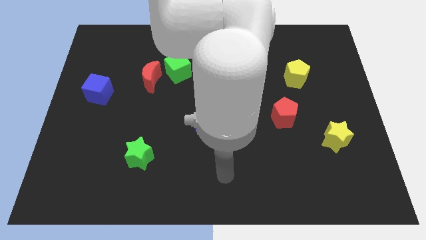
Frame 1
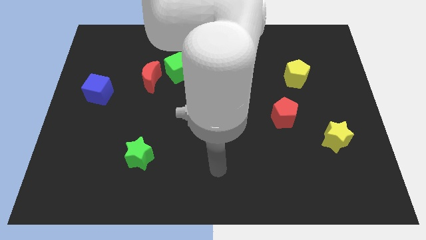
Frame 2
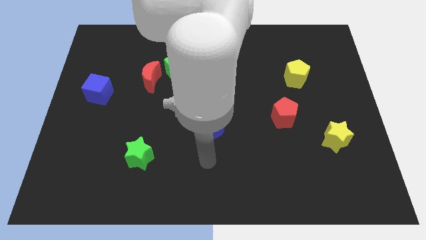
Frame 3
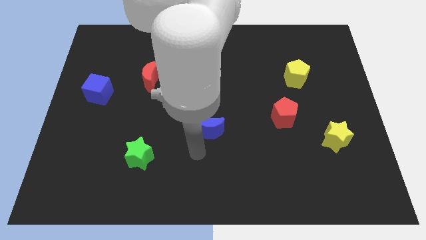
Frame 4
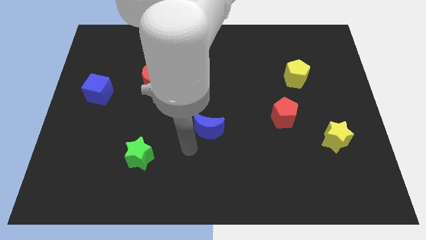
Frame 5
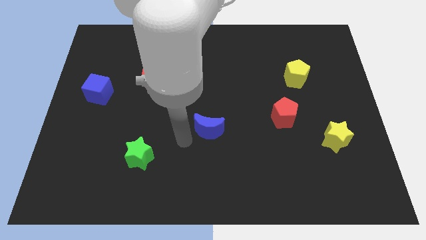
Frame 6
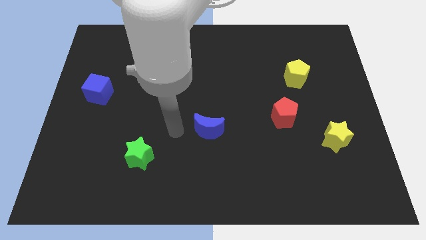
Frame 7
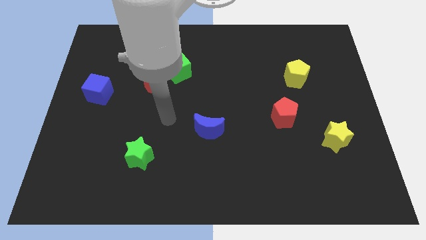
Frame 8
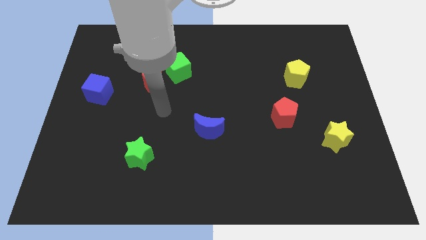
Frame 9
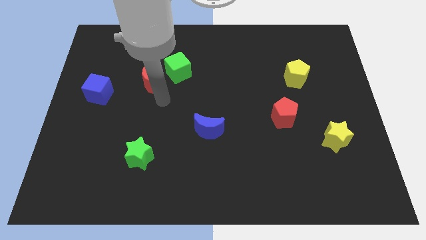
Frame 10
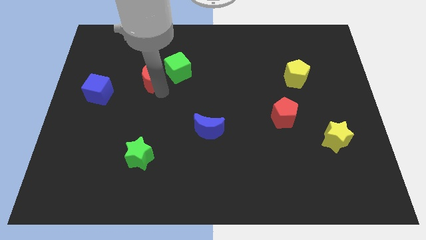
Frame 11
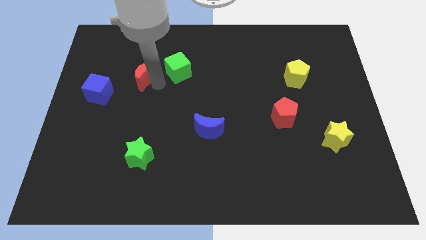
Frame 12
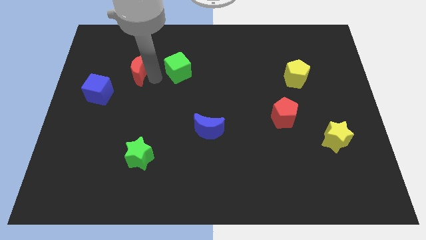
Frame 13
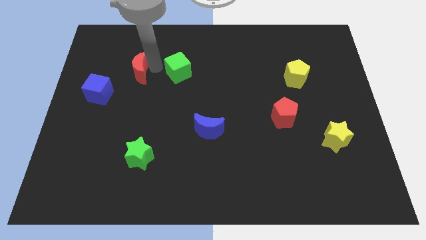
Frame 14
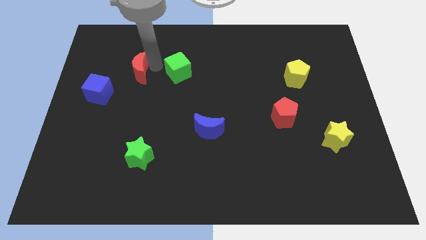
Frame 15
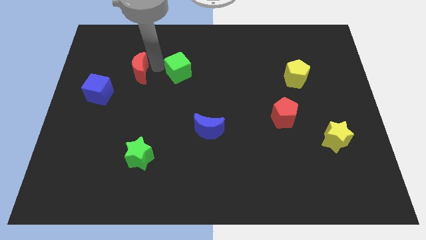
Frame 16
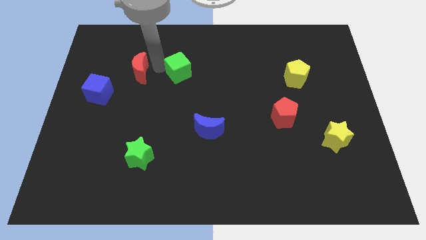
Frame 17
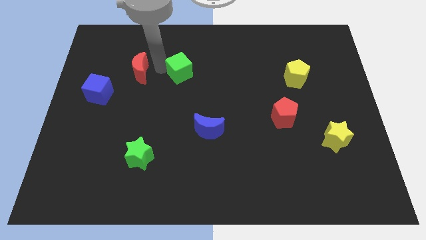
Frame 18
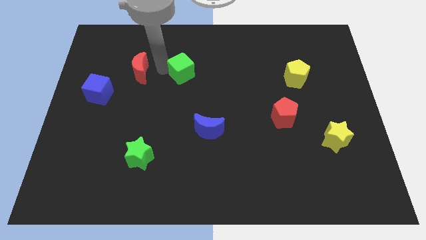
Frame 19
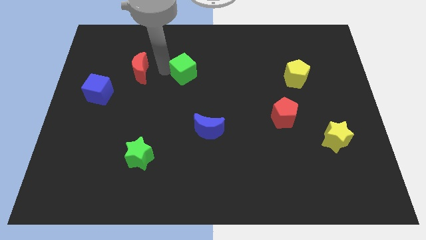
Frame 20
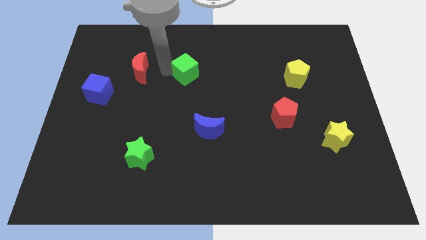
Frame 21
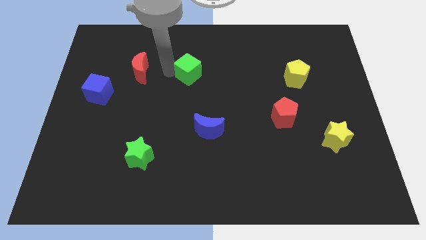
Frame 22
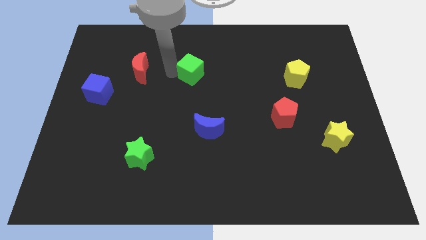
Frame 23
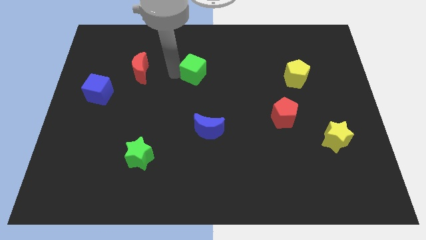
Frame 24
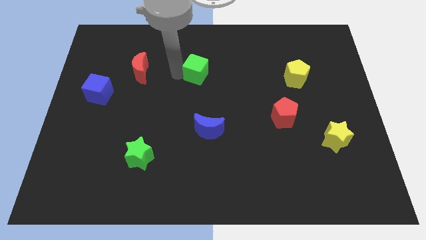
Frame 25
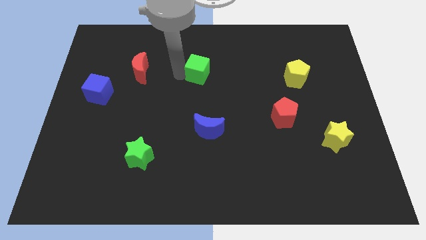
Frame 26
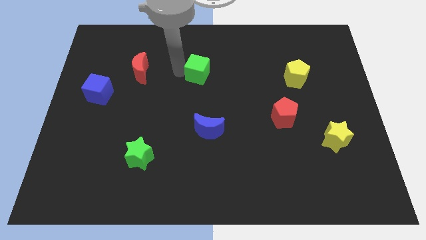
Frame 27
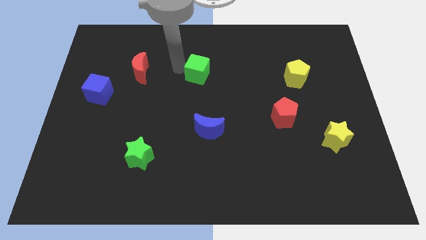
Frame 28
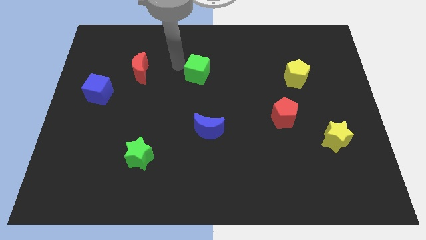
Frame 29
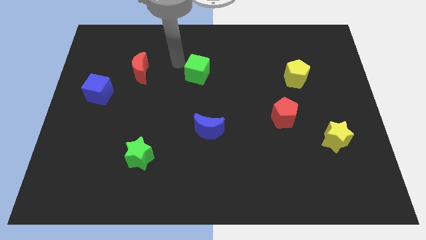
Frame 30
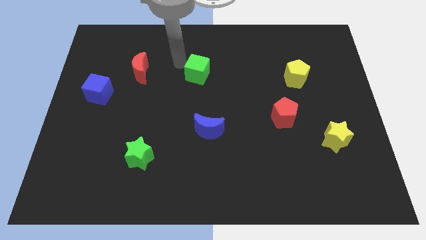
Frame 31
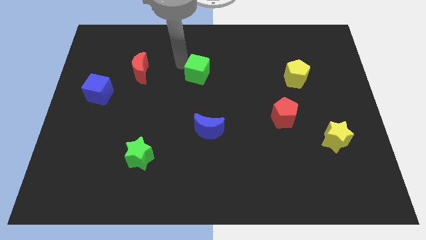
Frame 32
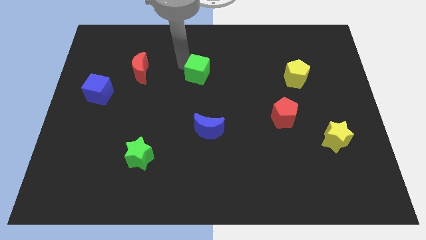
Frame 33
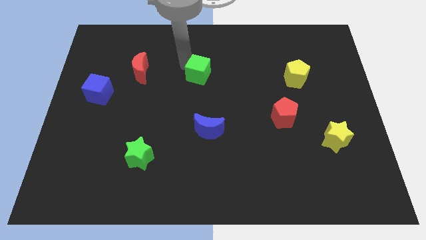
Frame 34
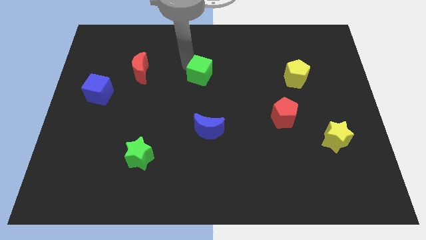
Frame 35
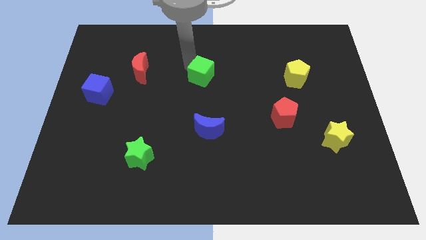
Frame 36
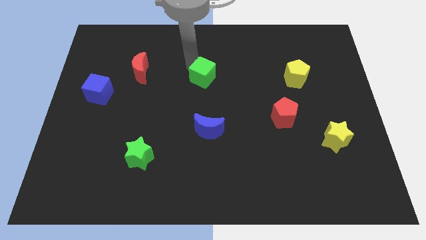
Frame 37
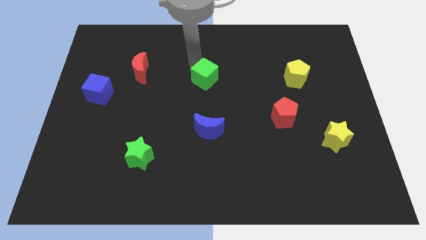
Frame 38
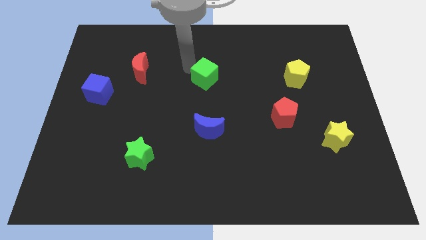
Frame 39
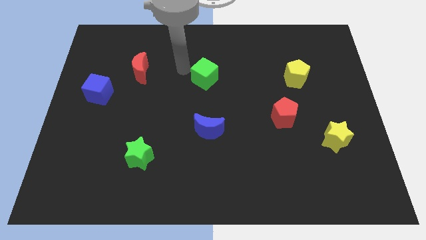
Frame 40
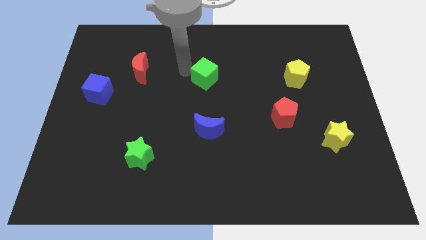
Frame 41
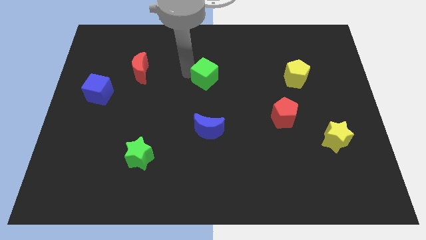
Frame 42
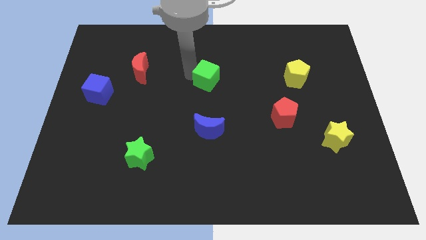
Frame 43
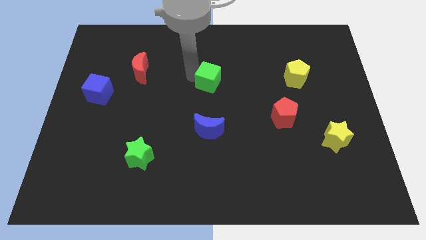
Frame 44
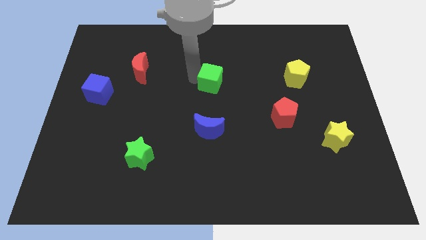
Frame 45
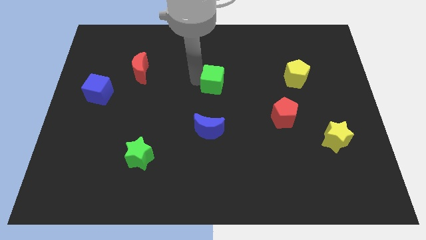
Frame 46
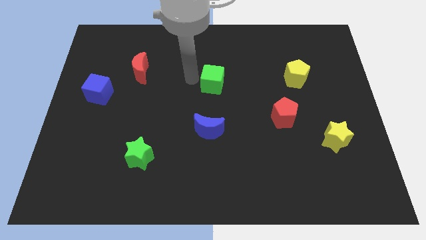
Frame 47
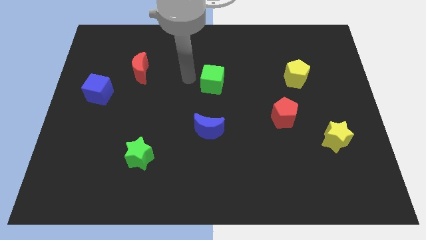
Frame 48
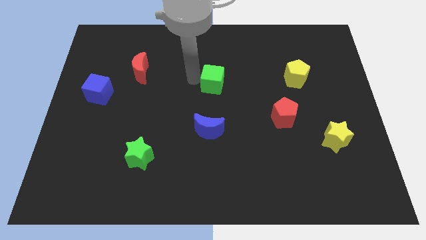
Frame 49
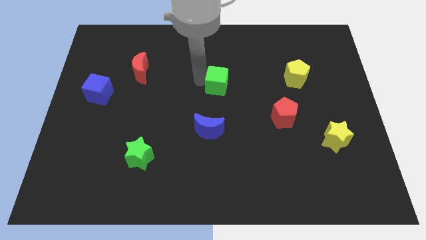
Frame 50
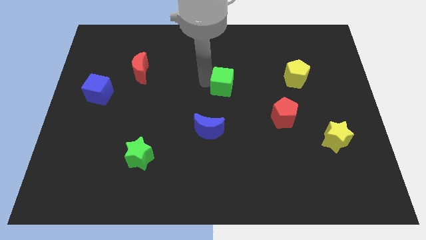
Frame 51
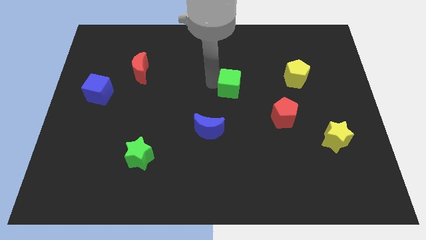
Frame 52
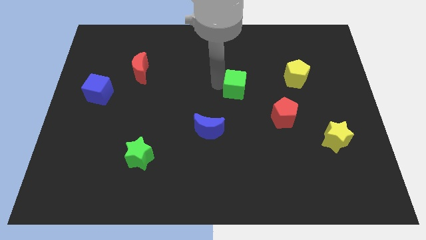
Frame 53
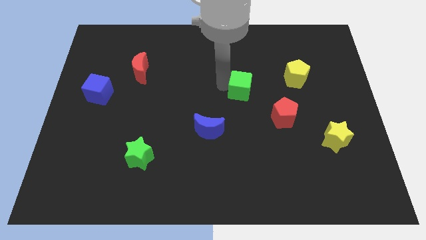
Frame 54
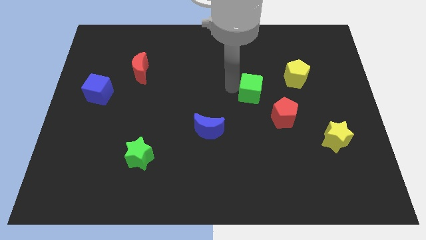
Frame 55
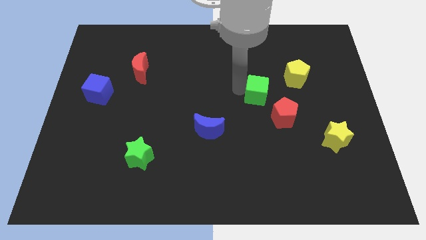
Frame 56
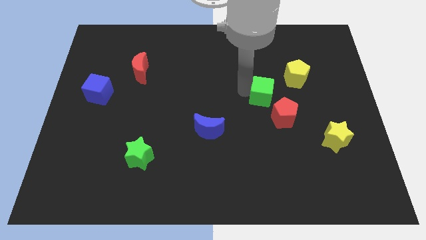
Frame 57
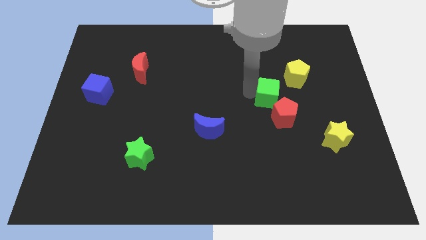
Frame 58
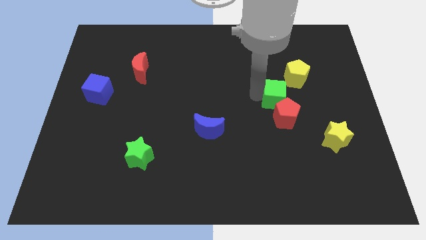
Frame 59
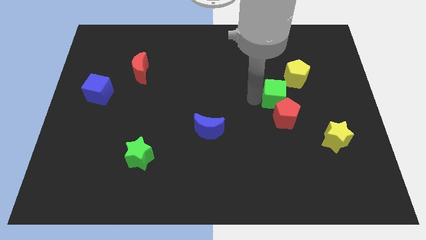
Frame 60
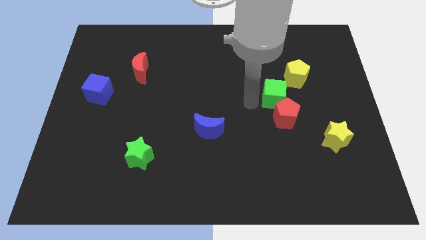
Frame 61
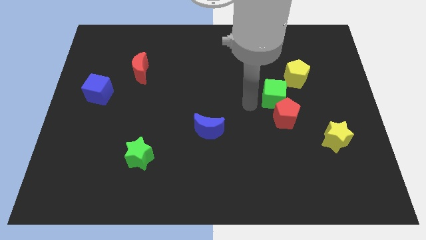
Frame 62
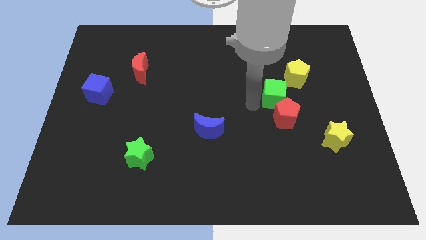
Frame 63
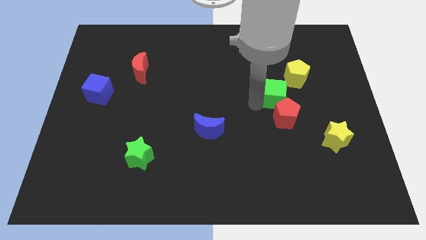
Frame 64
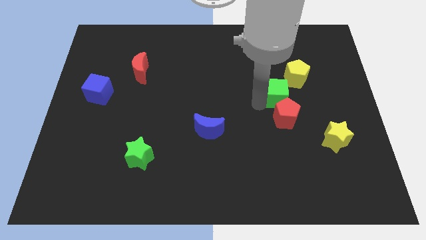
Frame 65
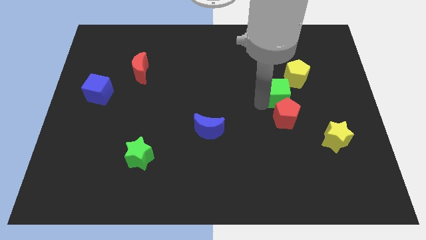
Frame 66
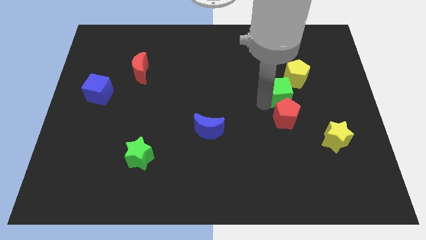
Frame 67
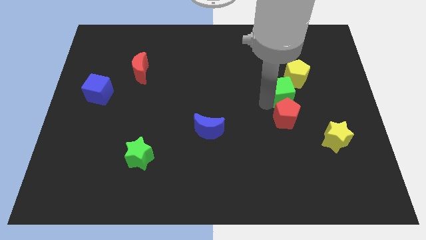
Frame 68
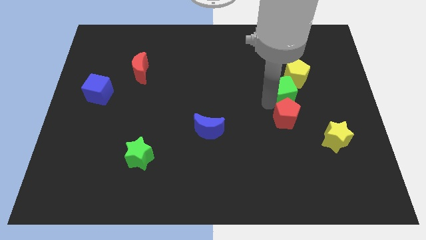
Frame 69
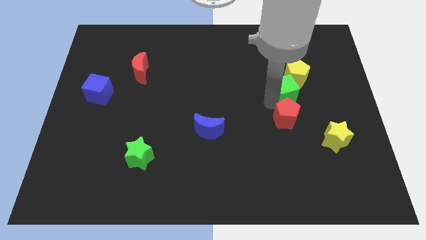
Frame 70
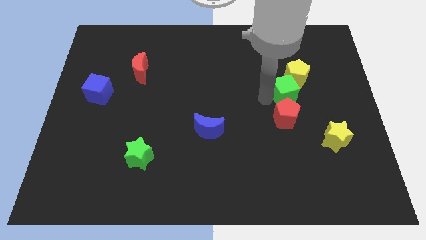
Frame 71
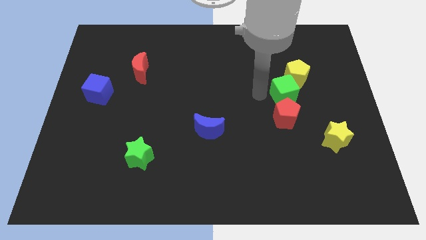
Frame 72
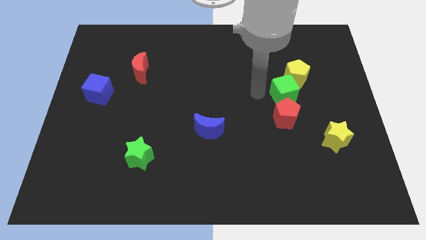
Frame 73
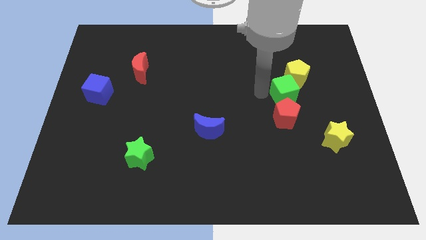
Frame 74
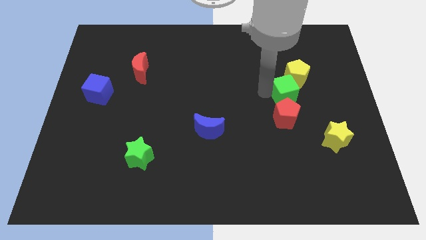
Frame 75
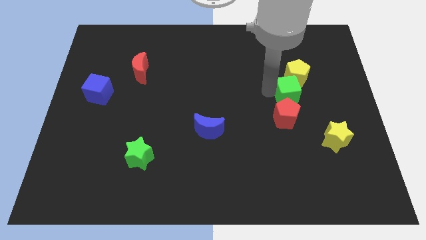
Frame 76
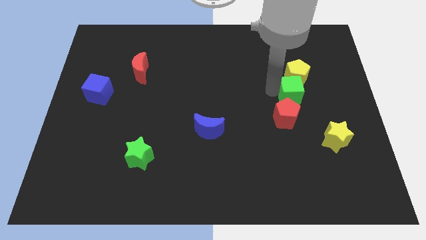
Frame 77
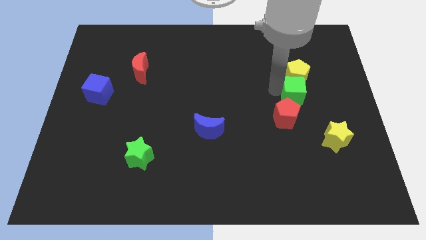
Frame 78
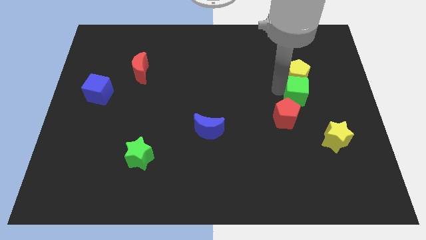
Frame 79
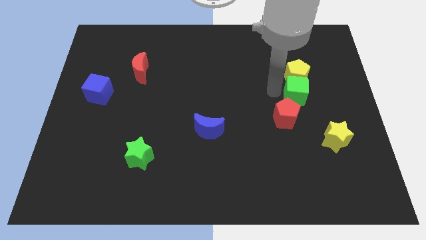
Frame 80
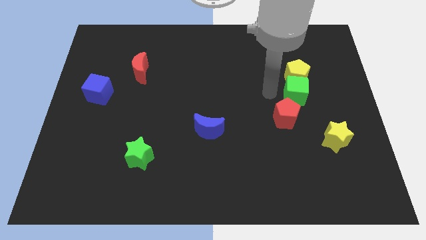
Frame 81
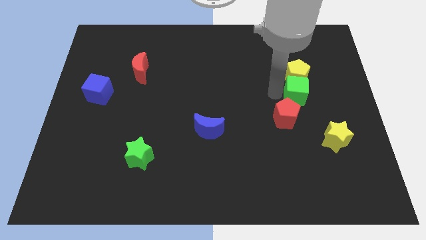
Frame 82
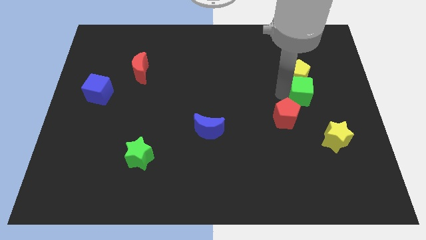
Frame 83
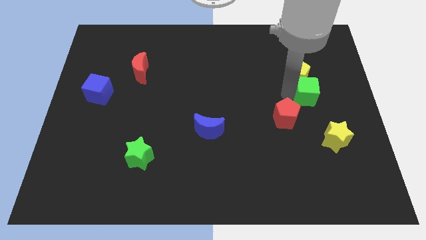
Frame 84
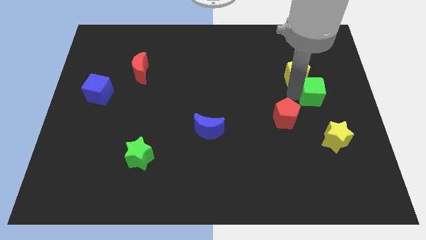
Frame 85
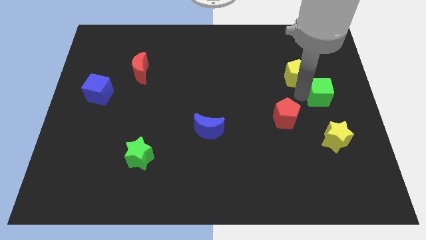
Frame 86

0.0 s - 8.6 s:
push the green cube to the center right
